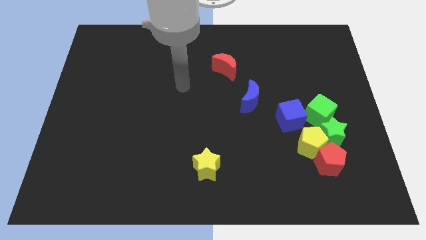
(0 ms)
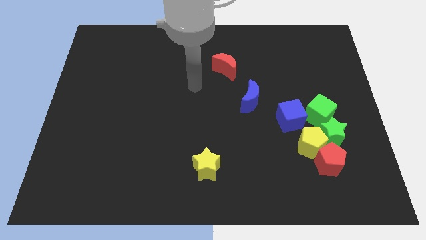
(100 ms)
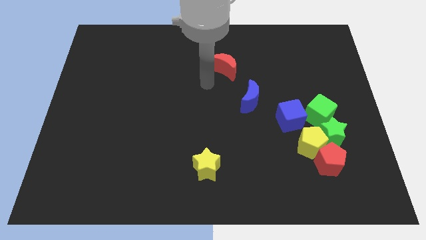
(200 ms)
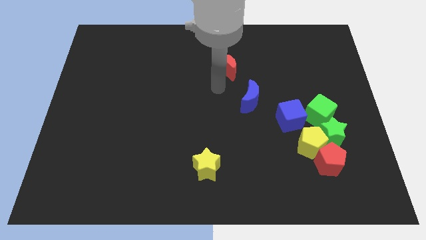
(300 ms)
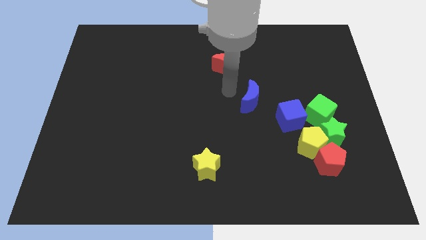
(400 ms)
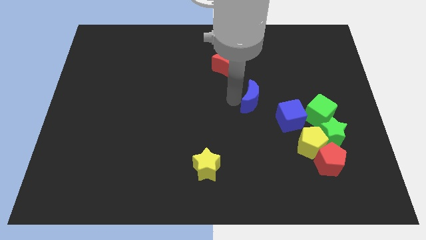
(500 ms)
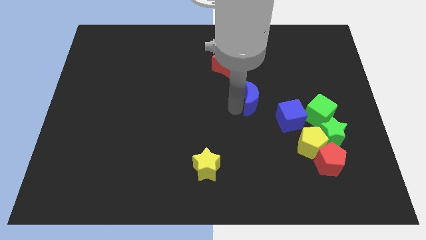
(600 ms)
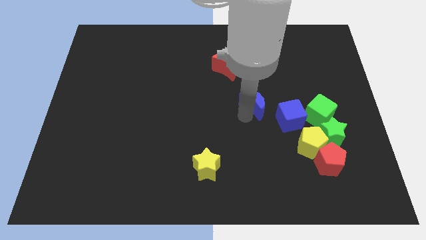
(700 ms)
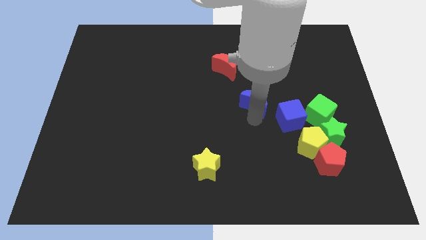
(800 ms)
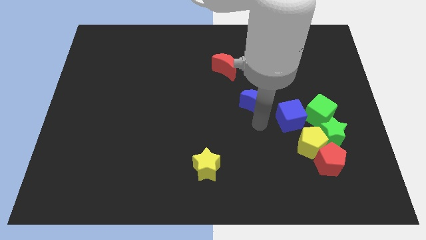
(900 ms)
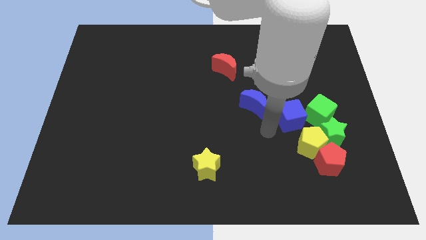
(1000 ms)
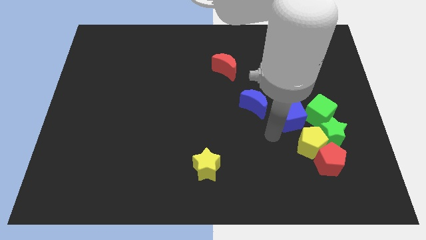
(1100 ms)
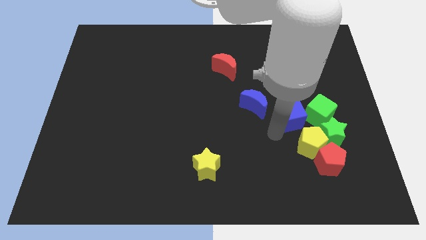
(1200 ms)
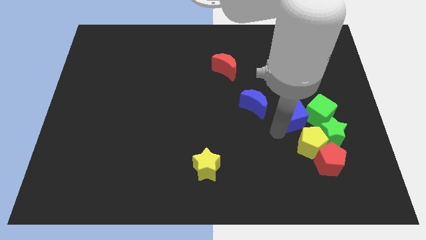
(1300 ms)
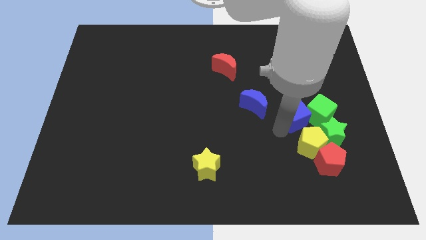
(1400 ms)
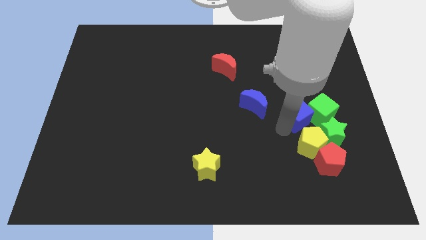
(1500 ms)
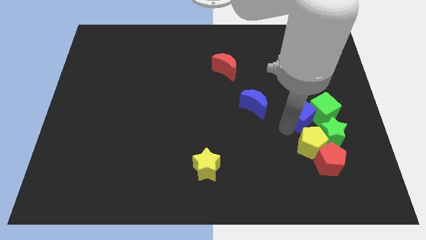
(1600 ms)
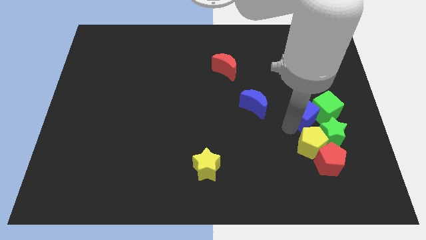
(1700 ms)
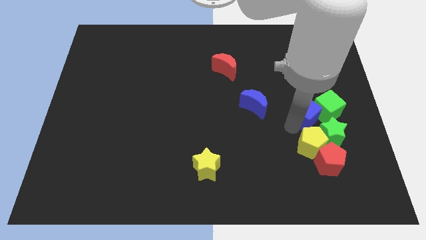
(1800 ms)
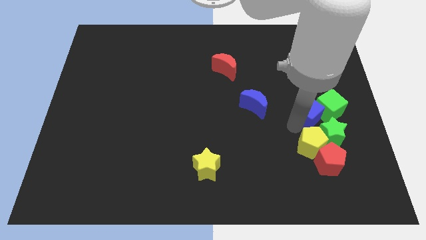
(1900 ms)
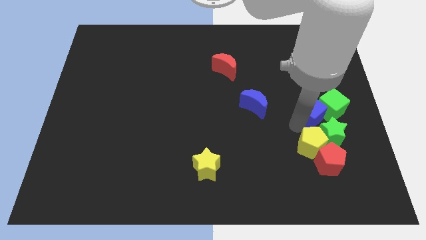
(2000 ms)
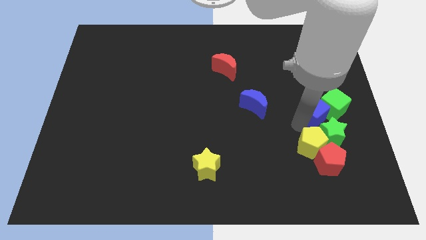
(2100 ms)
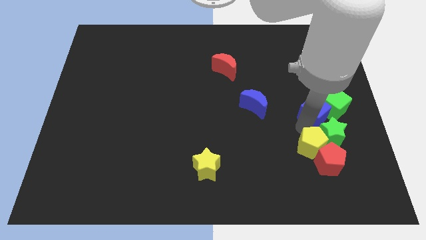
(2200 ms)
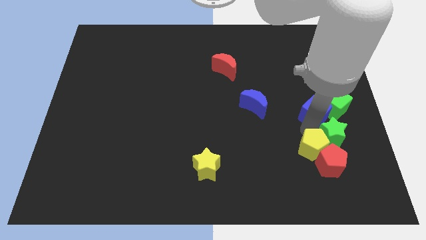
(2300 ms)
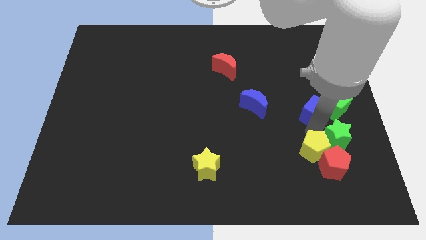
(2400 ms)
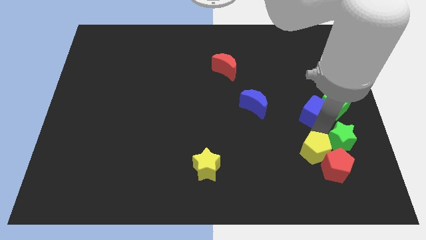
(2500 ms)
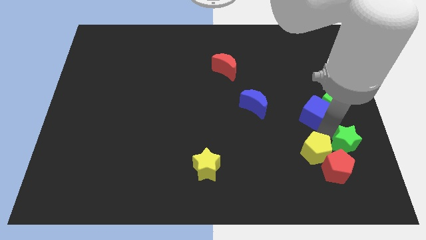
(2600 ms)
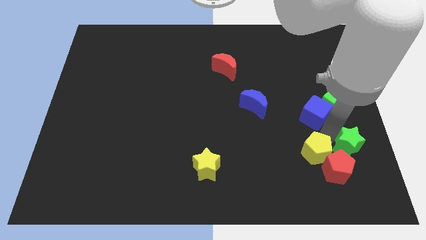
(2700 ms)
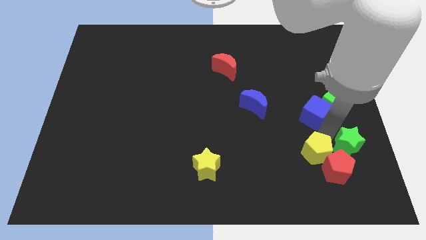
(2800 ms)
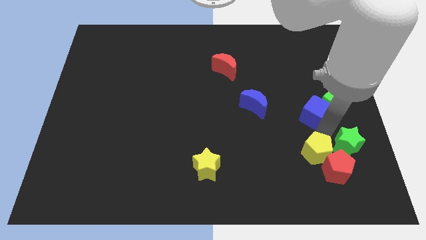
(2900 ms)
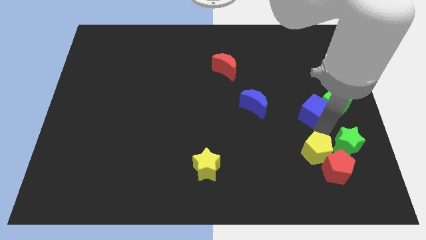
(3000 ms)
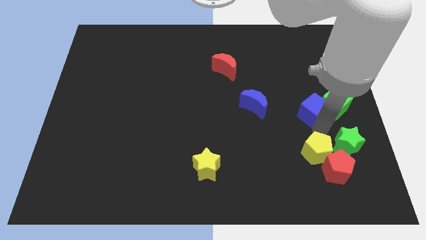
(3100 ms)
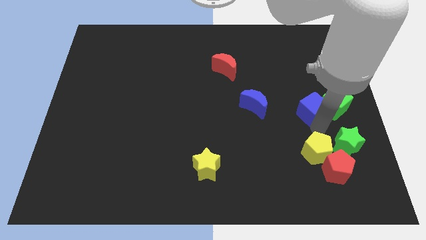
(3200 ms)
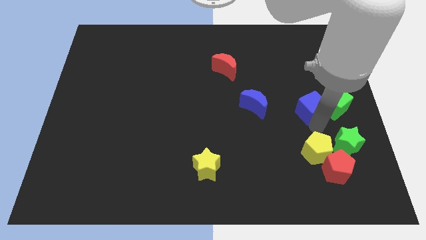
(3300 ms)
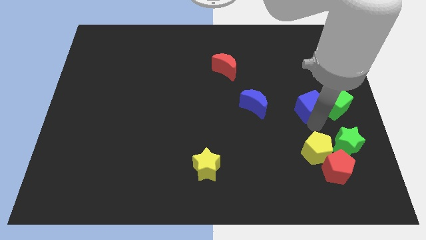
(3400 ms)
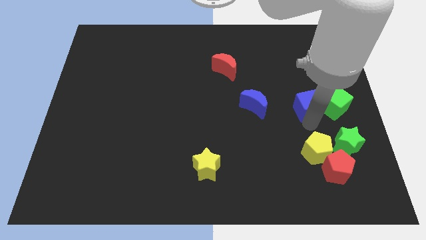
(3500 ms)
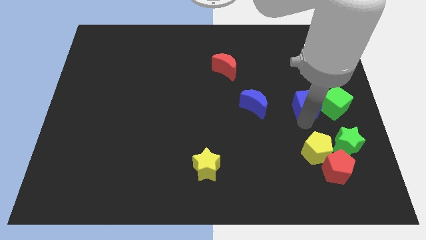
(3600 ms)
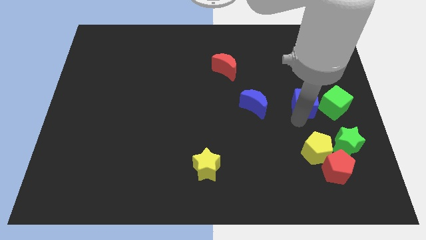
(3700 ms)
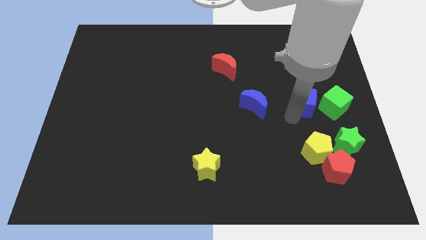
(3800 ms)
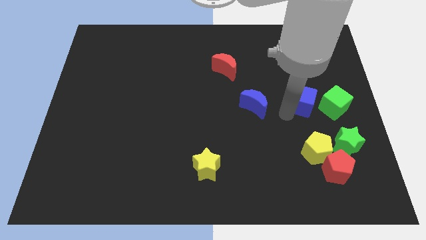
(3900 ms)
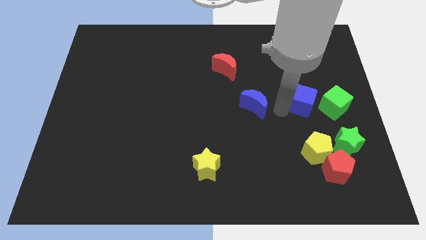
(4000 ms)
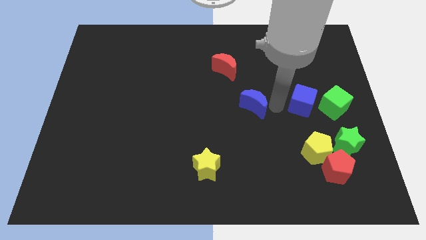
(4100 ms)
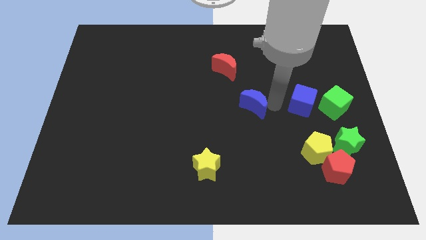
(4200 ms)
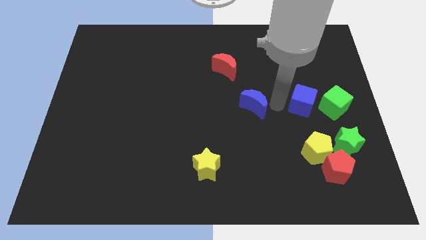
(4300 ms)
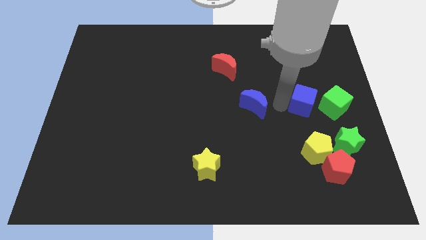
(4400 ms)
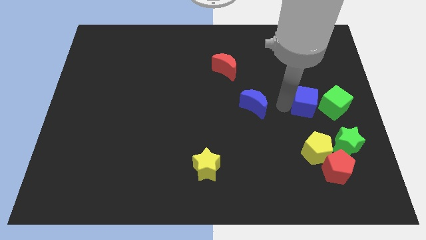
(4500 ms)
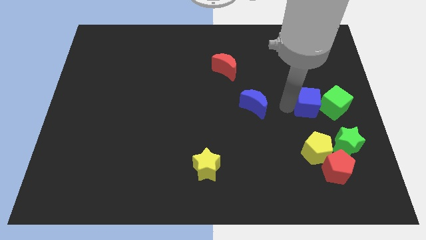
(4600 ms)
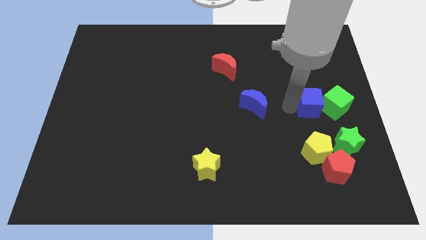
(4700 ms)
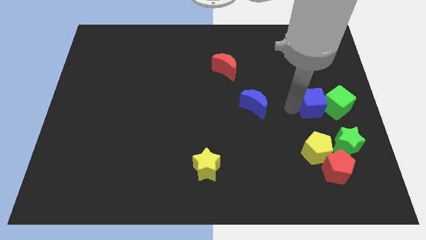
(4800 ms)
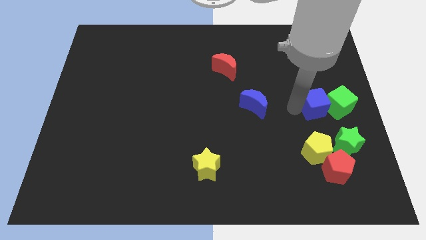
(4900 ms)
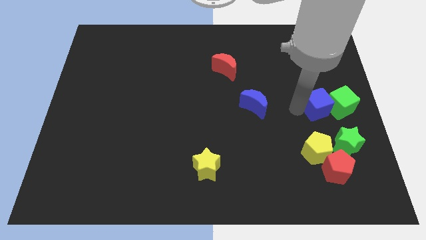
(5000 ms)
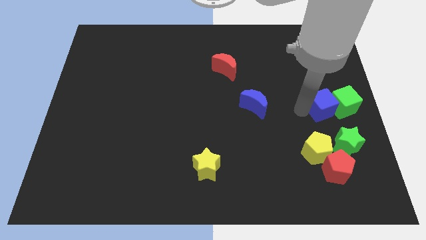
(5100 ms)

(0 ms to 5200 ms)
put the blue cube to the right side

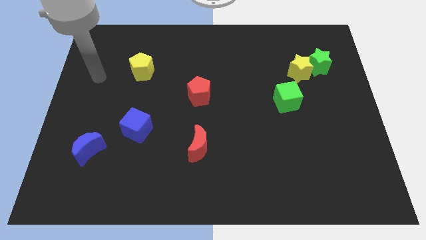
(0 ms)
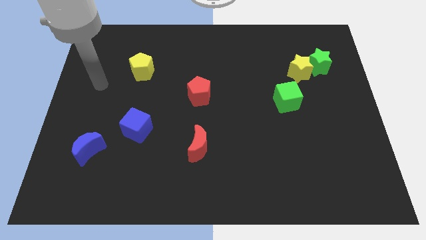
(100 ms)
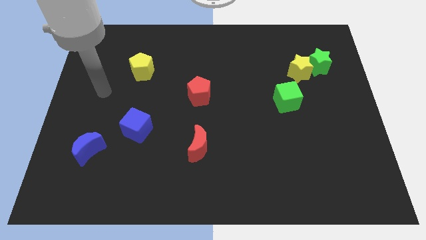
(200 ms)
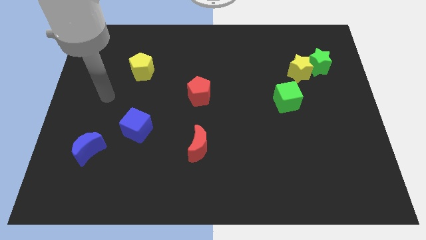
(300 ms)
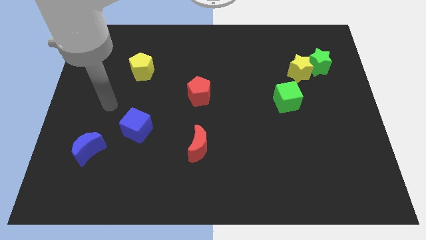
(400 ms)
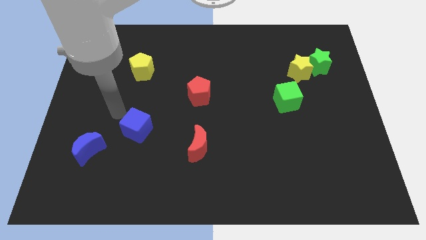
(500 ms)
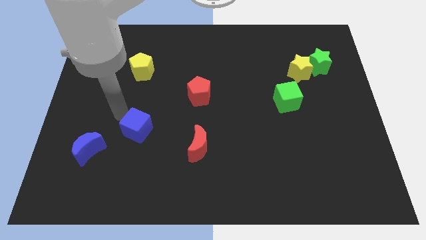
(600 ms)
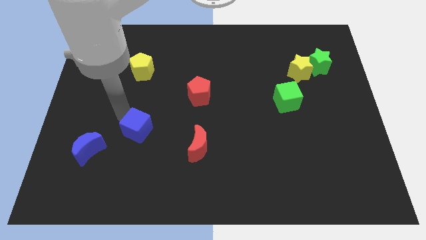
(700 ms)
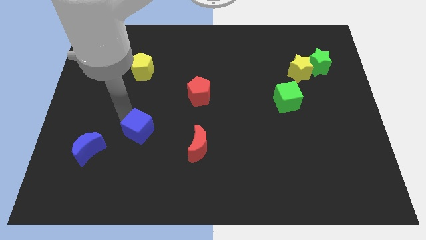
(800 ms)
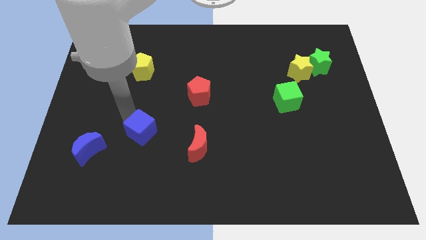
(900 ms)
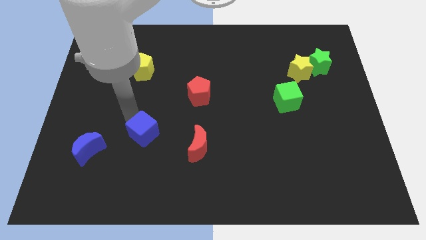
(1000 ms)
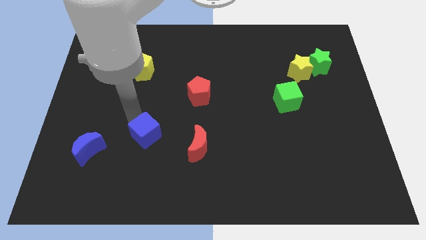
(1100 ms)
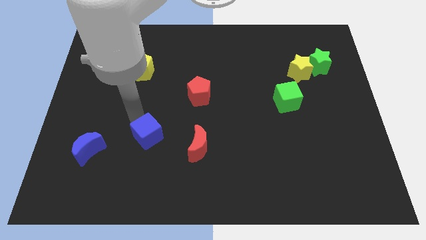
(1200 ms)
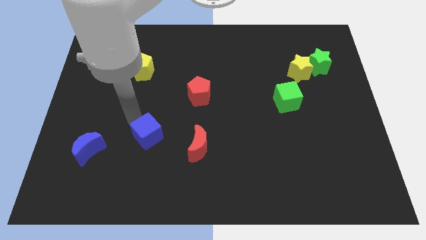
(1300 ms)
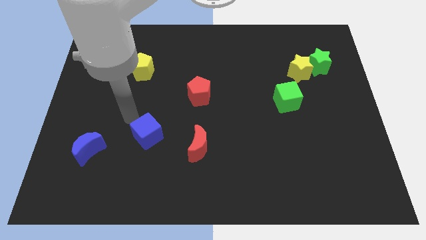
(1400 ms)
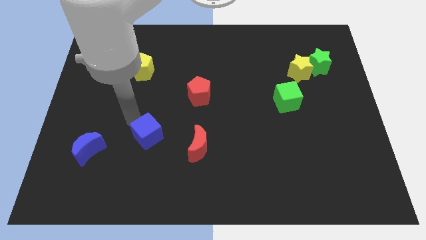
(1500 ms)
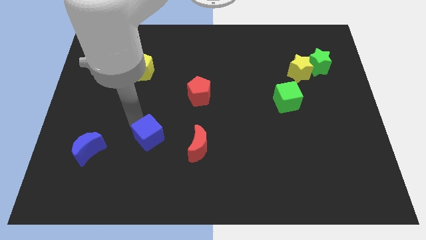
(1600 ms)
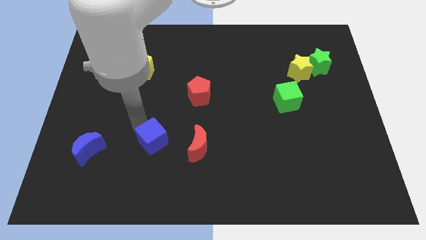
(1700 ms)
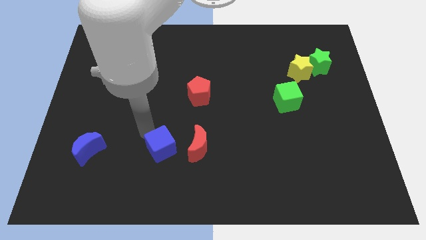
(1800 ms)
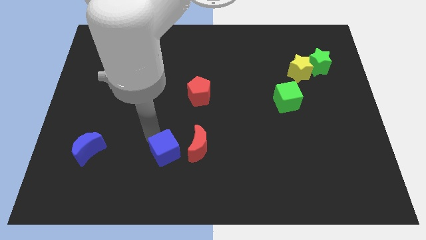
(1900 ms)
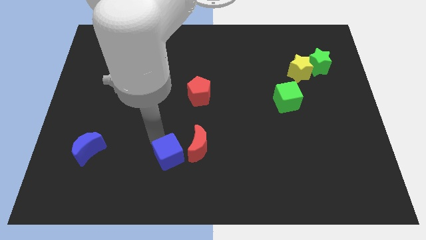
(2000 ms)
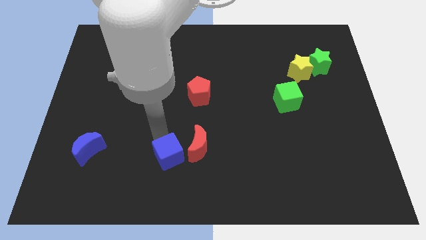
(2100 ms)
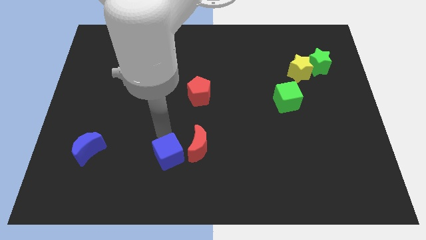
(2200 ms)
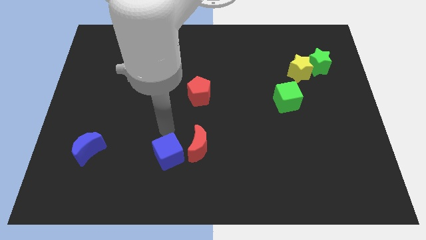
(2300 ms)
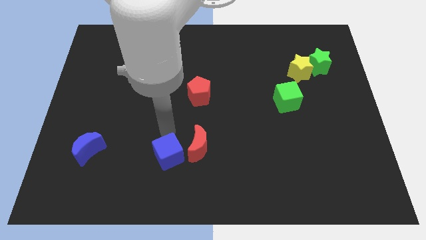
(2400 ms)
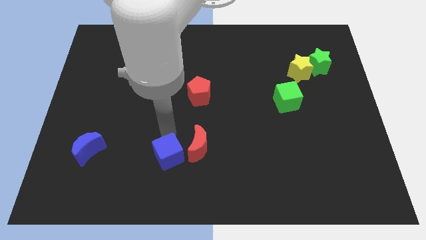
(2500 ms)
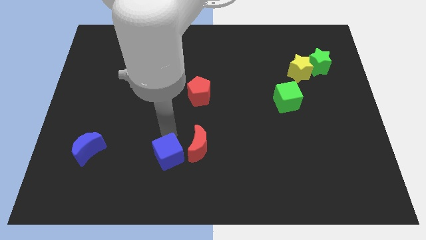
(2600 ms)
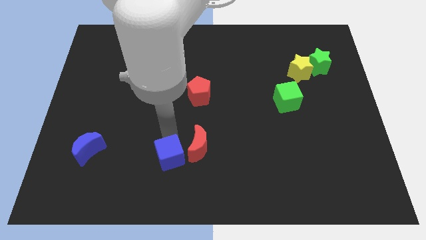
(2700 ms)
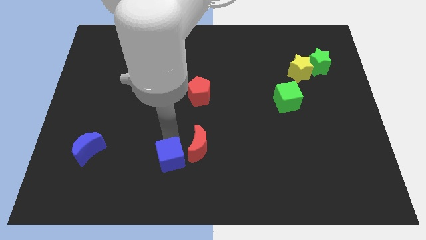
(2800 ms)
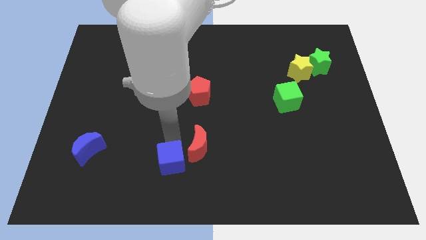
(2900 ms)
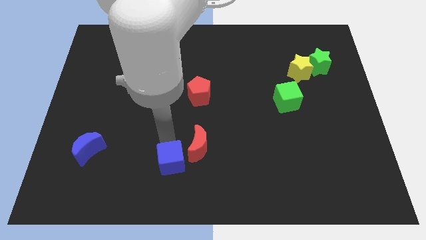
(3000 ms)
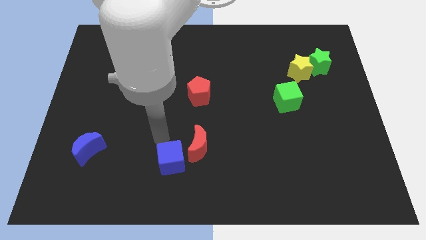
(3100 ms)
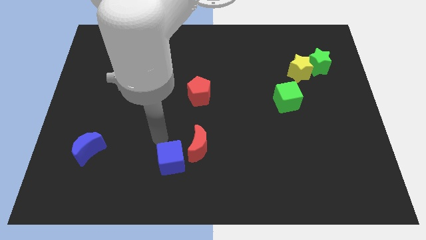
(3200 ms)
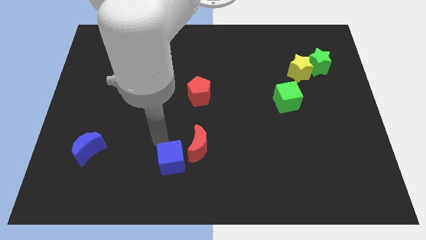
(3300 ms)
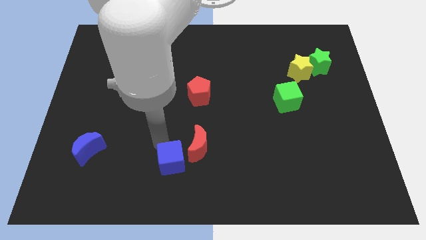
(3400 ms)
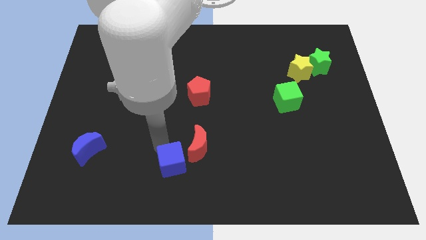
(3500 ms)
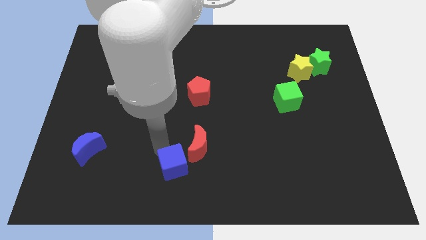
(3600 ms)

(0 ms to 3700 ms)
push the blue cube to the bottom side
